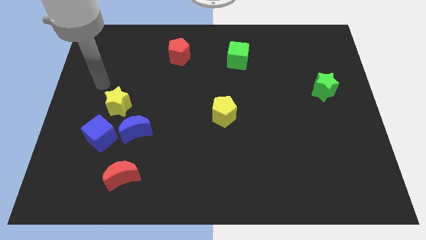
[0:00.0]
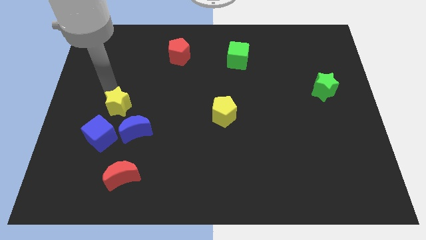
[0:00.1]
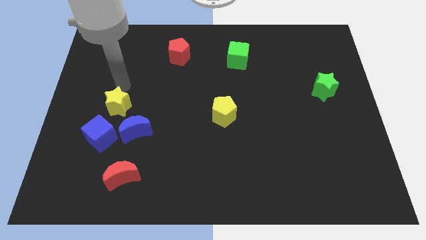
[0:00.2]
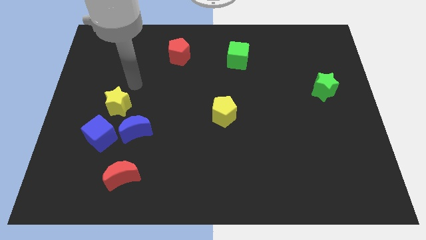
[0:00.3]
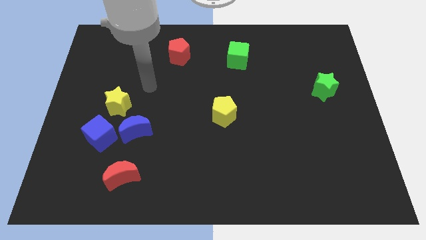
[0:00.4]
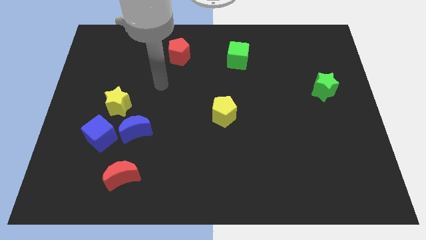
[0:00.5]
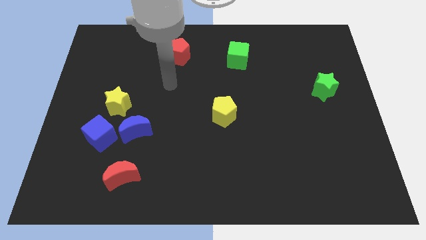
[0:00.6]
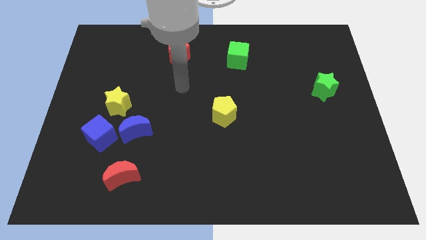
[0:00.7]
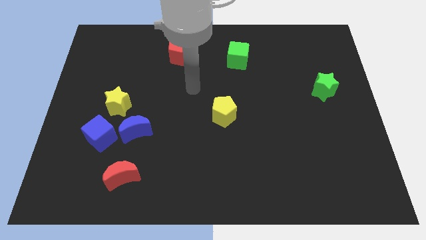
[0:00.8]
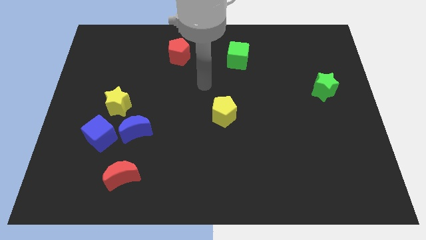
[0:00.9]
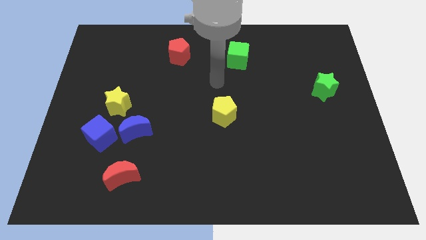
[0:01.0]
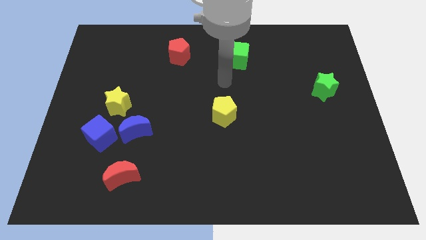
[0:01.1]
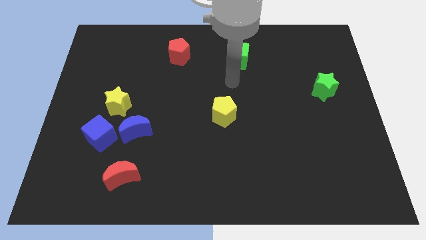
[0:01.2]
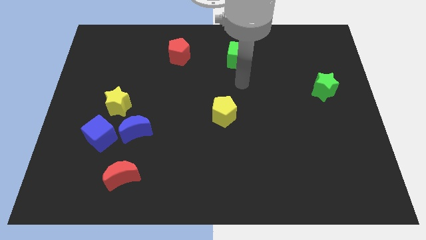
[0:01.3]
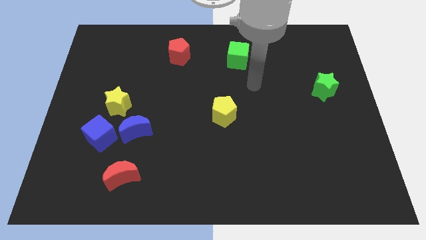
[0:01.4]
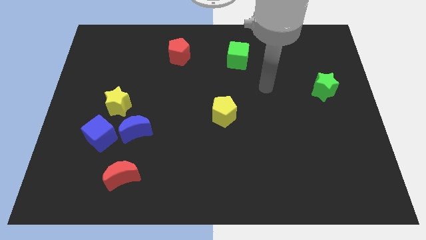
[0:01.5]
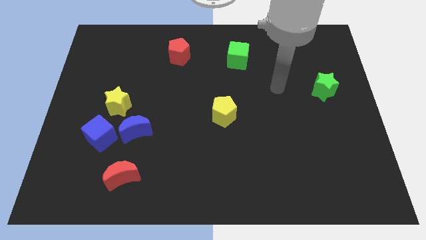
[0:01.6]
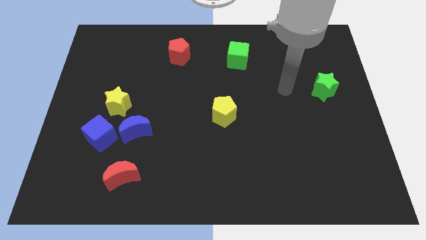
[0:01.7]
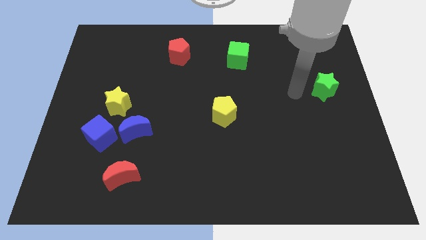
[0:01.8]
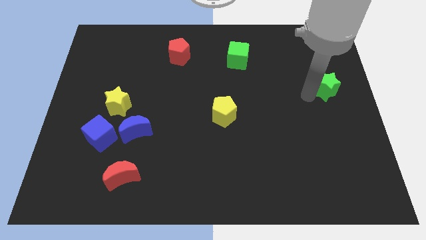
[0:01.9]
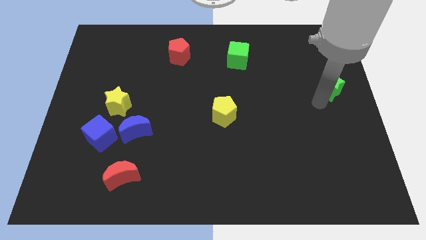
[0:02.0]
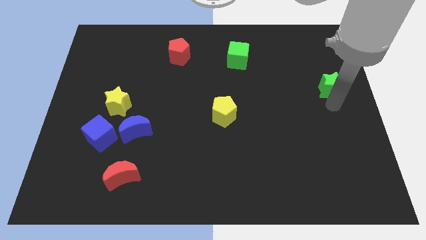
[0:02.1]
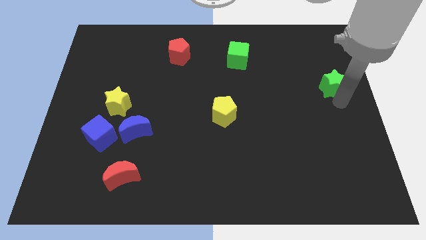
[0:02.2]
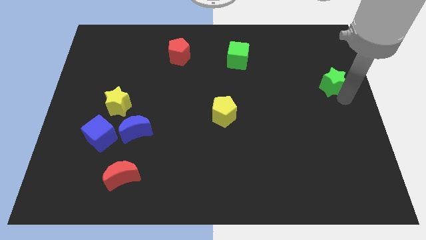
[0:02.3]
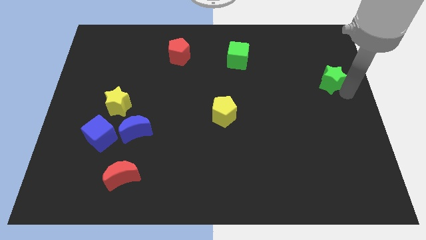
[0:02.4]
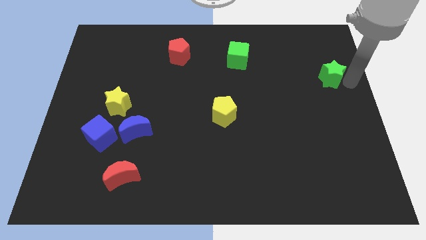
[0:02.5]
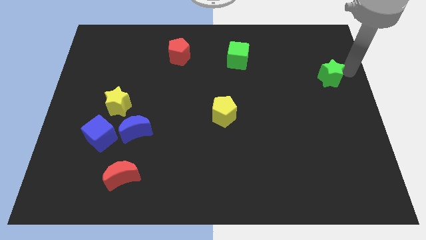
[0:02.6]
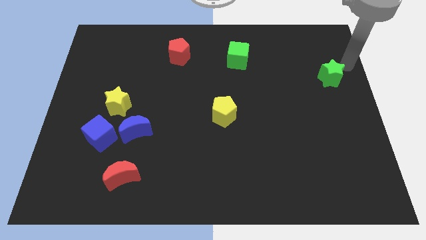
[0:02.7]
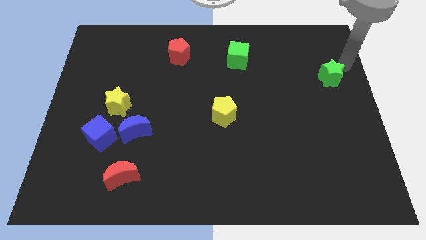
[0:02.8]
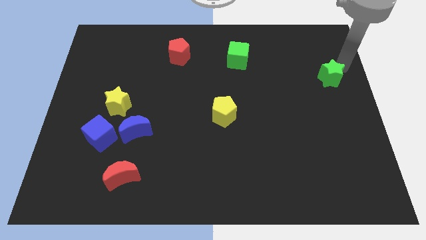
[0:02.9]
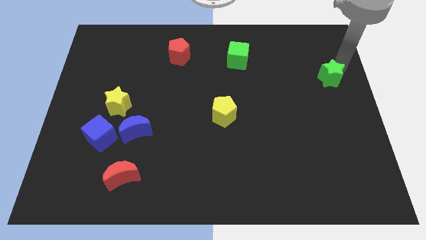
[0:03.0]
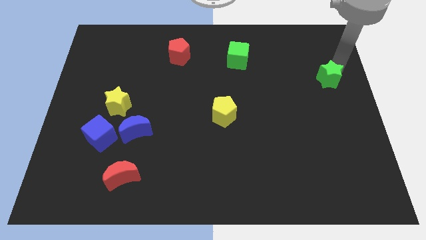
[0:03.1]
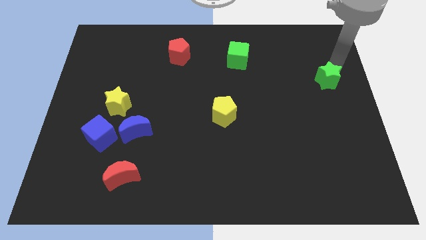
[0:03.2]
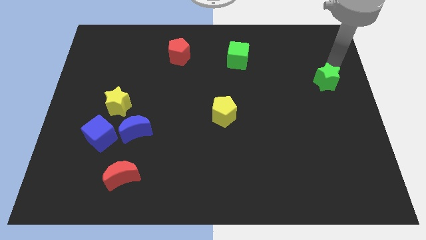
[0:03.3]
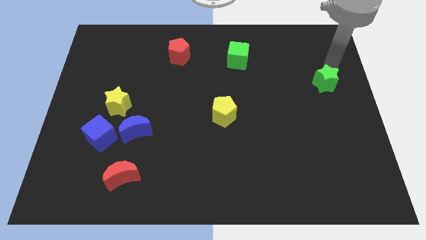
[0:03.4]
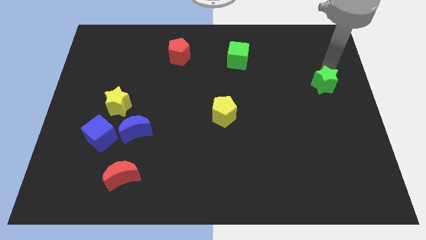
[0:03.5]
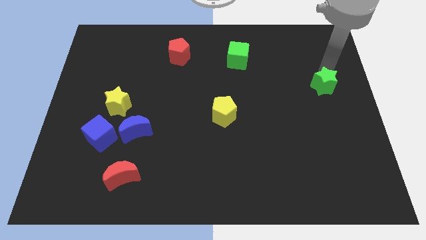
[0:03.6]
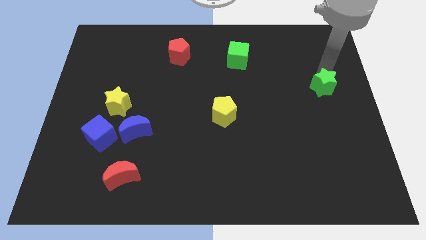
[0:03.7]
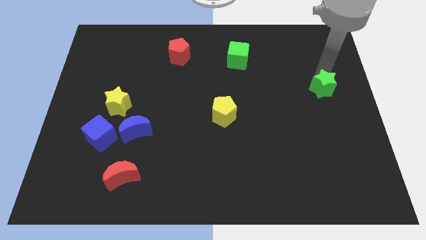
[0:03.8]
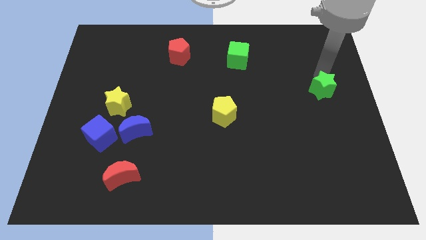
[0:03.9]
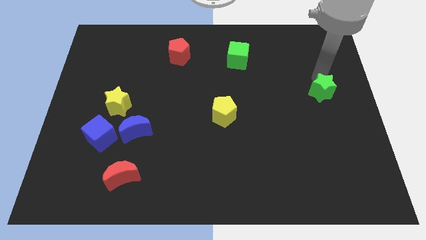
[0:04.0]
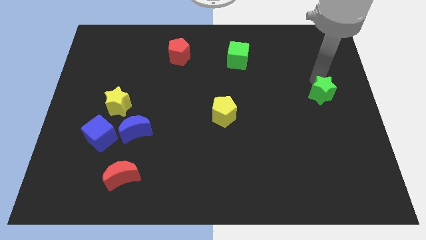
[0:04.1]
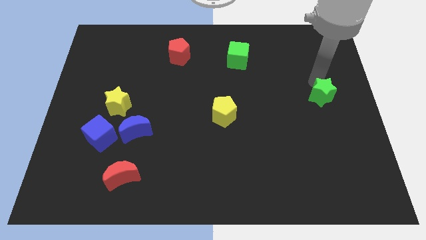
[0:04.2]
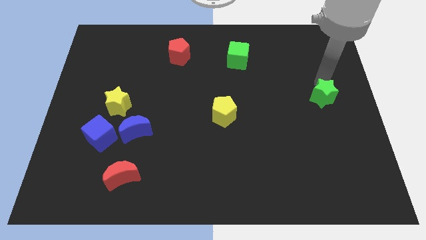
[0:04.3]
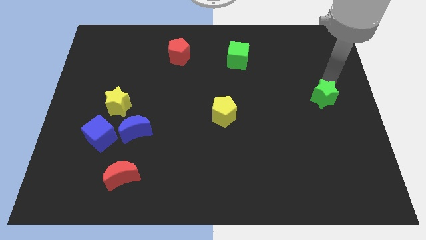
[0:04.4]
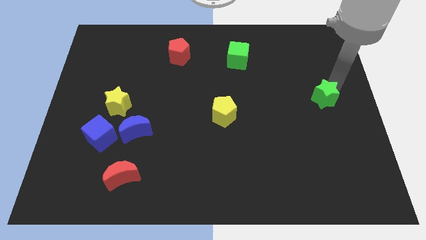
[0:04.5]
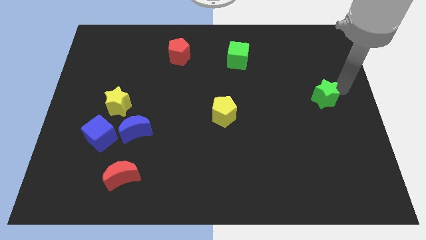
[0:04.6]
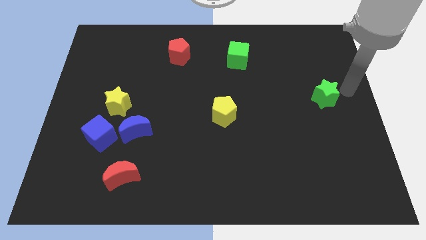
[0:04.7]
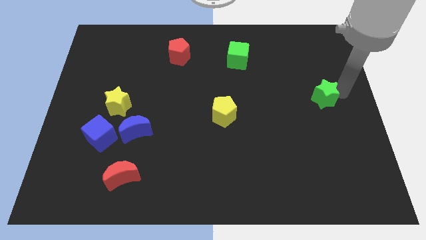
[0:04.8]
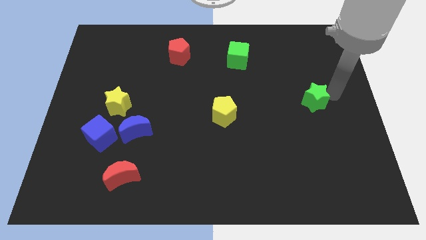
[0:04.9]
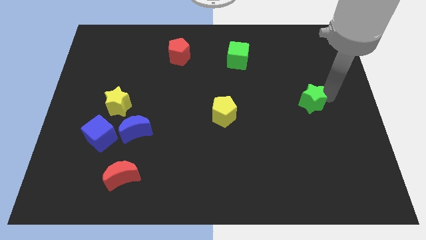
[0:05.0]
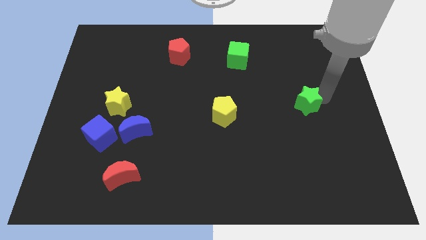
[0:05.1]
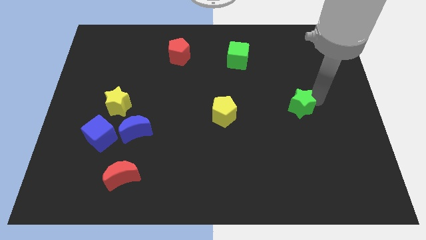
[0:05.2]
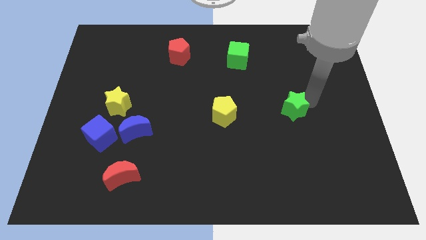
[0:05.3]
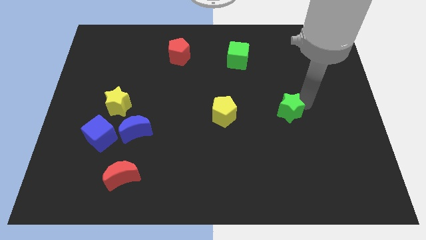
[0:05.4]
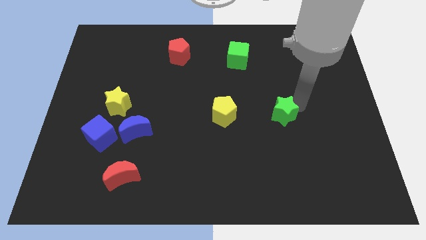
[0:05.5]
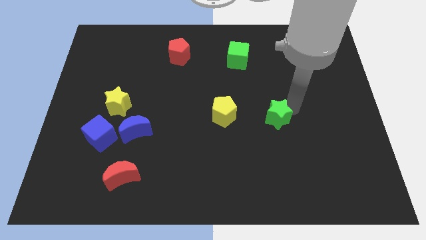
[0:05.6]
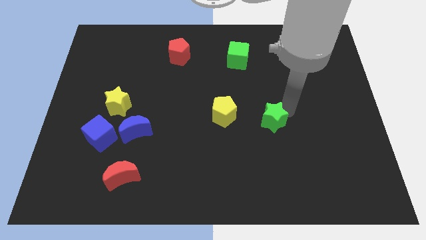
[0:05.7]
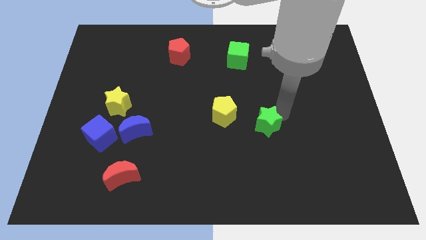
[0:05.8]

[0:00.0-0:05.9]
slide the green star diagonally down and to the right of the yellow pentagon

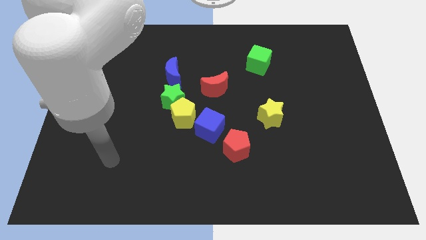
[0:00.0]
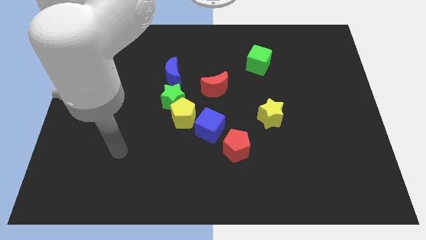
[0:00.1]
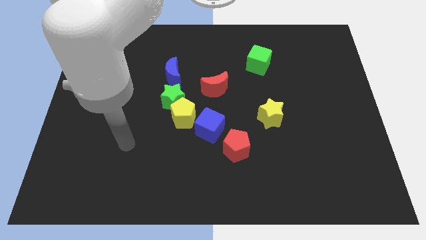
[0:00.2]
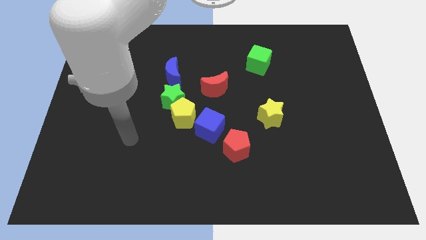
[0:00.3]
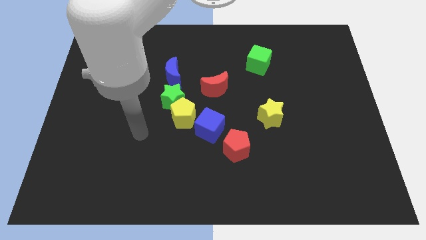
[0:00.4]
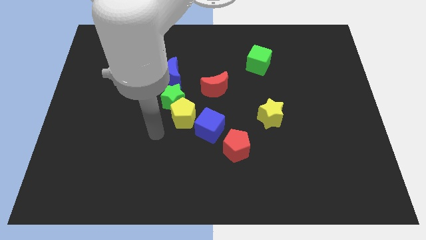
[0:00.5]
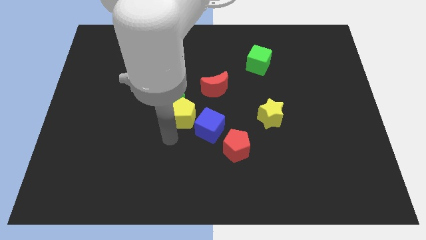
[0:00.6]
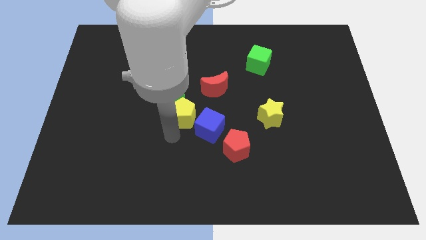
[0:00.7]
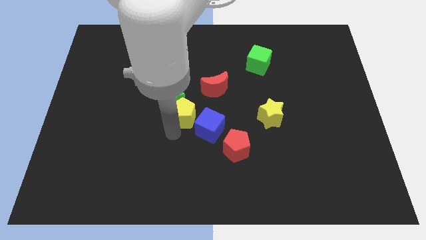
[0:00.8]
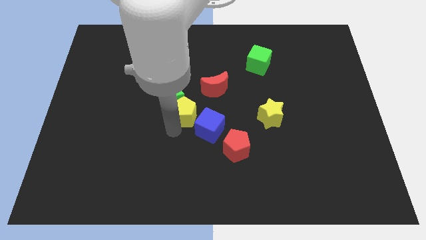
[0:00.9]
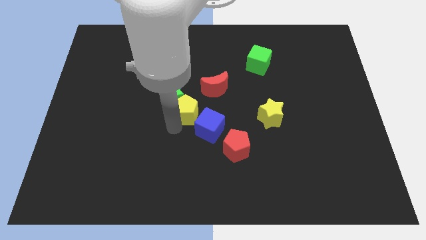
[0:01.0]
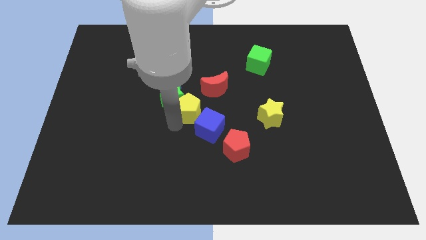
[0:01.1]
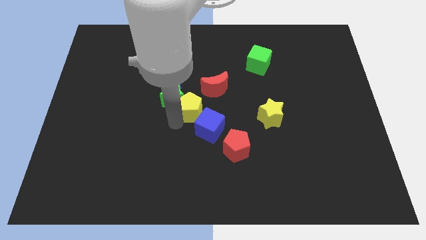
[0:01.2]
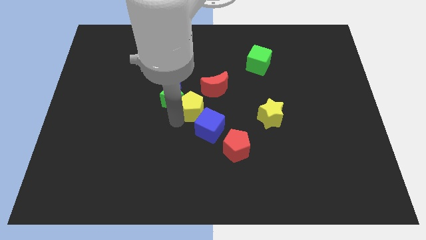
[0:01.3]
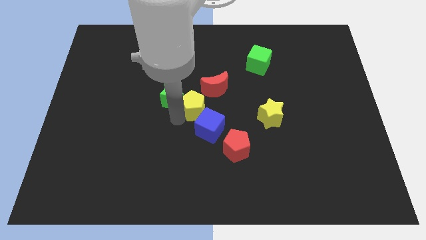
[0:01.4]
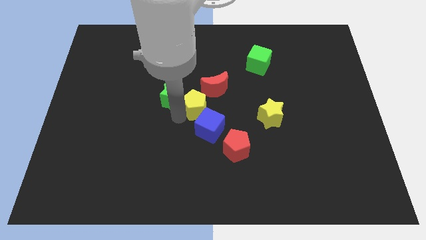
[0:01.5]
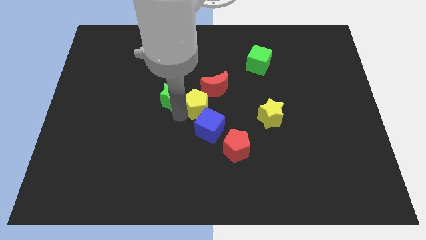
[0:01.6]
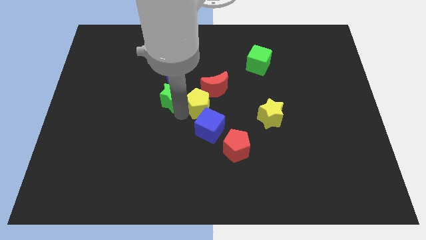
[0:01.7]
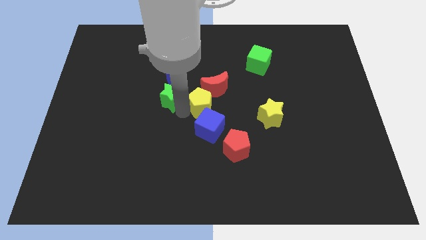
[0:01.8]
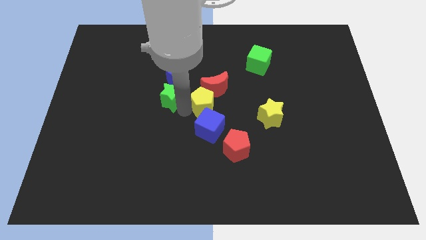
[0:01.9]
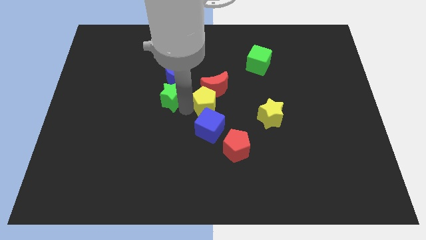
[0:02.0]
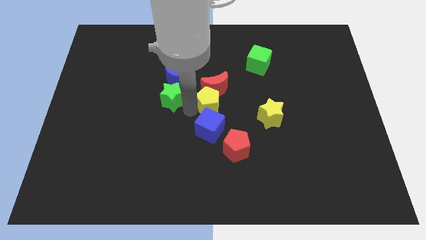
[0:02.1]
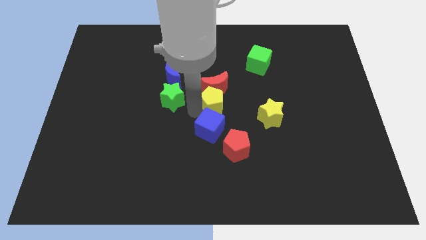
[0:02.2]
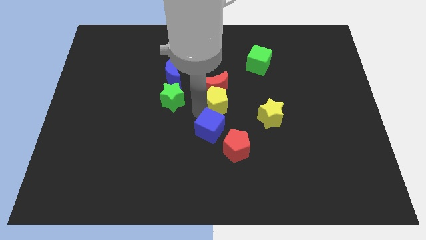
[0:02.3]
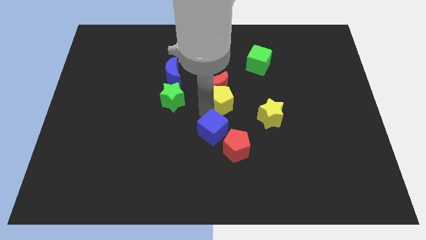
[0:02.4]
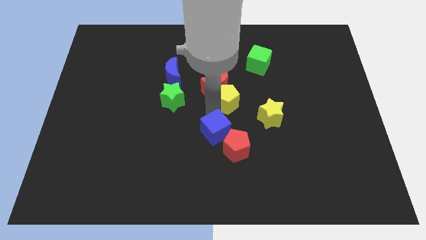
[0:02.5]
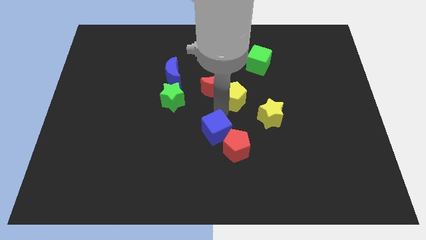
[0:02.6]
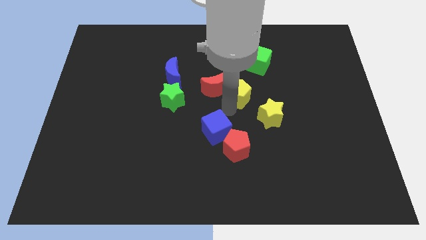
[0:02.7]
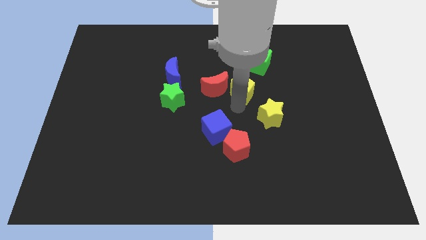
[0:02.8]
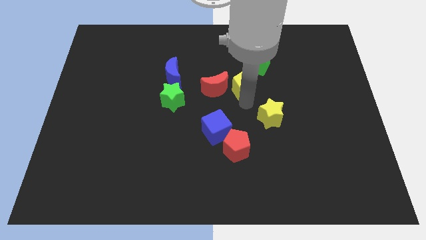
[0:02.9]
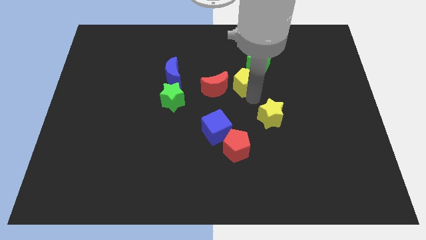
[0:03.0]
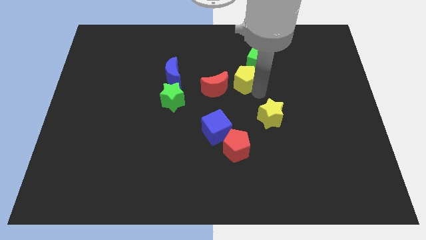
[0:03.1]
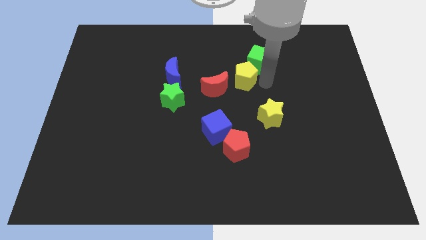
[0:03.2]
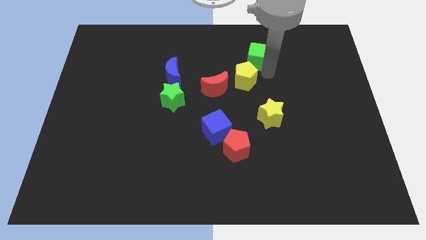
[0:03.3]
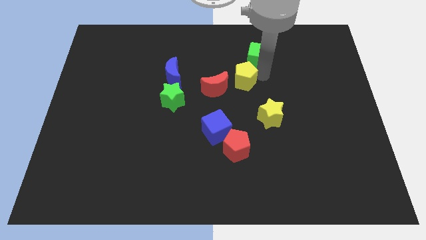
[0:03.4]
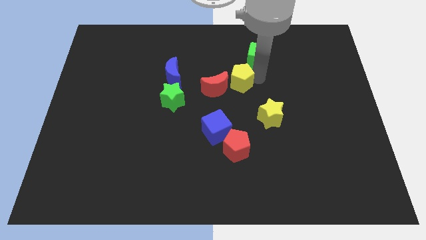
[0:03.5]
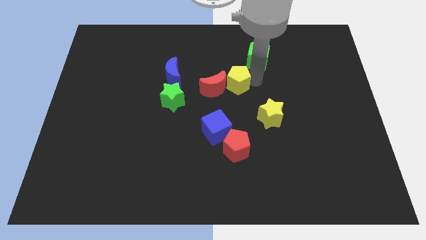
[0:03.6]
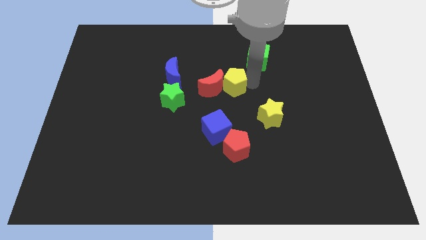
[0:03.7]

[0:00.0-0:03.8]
put the yellow pentagon to the right side of the blue moon
